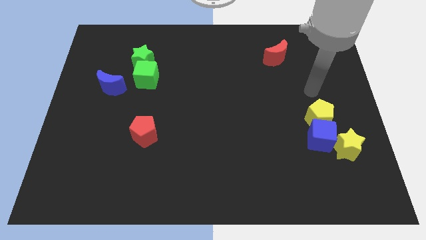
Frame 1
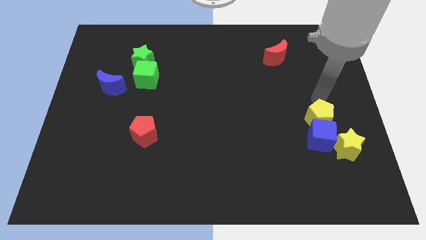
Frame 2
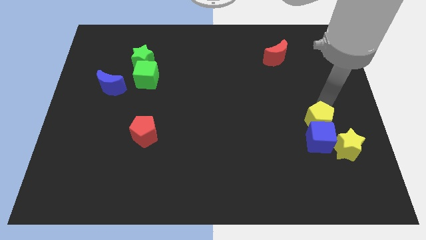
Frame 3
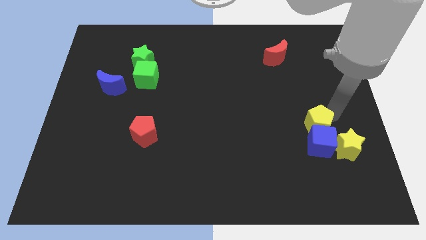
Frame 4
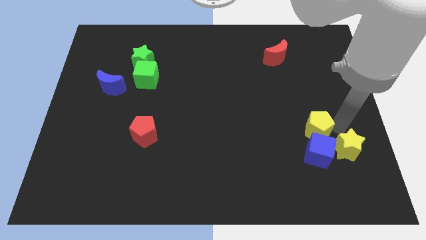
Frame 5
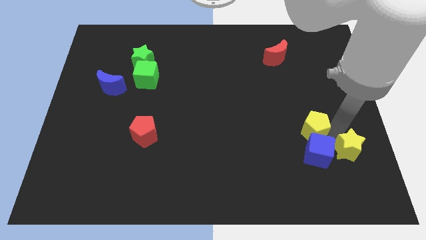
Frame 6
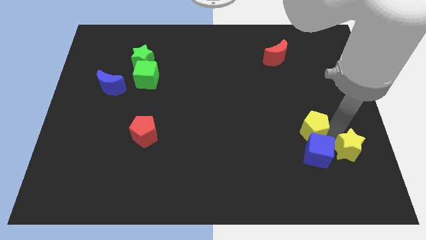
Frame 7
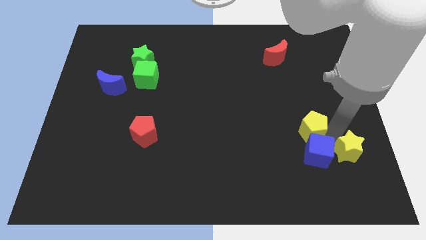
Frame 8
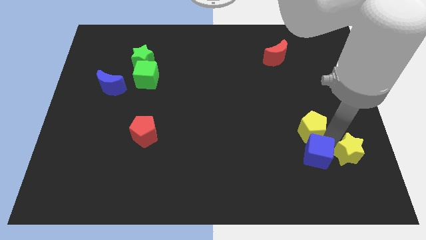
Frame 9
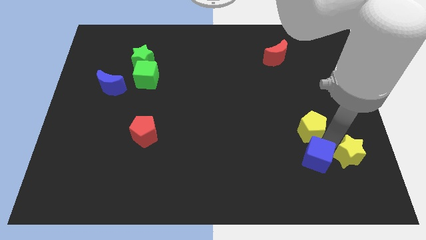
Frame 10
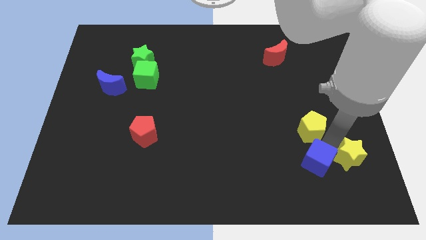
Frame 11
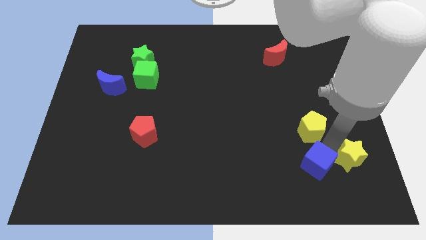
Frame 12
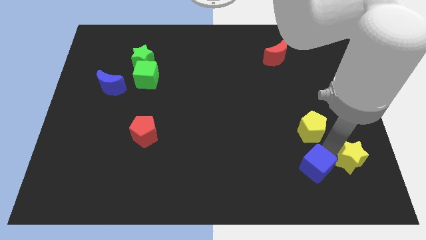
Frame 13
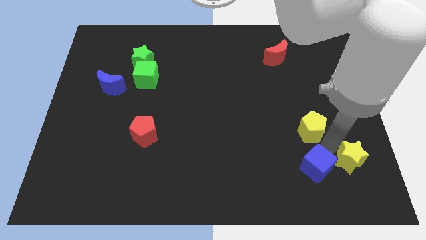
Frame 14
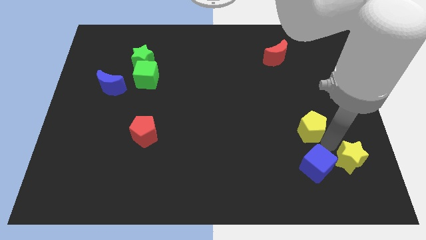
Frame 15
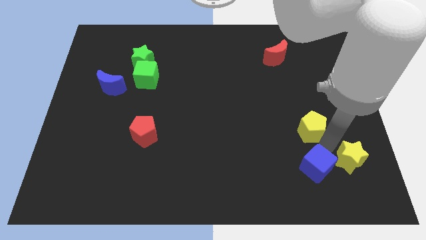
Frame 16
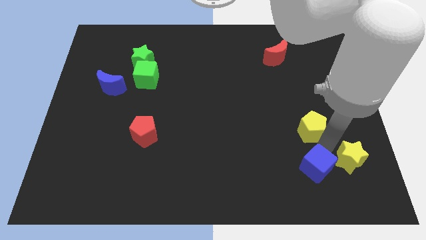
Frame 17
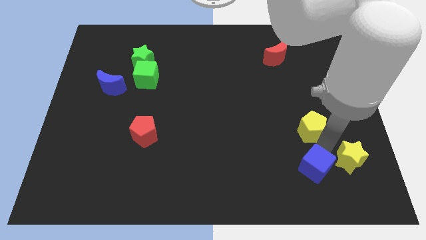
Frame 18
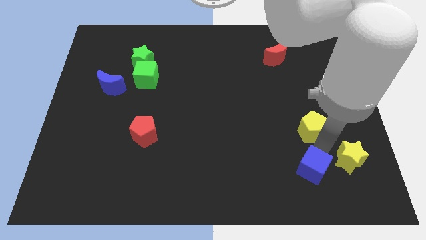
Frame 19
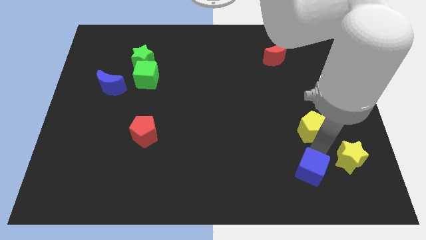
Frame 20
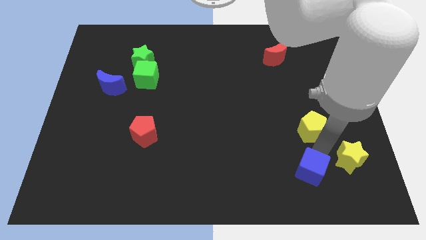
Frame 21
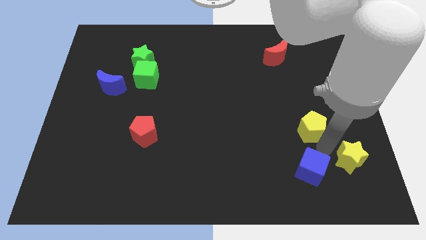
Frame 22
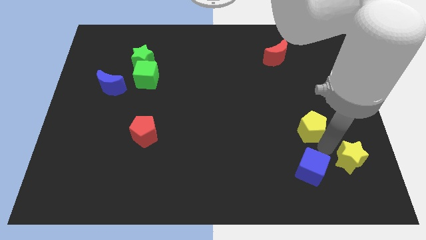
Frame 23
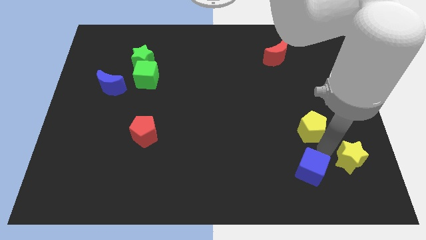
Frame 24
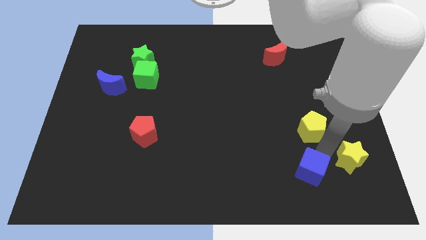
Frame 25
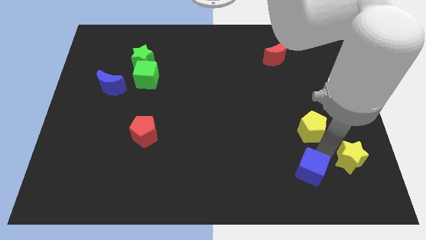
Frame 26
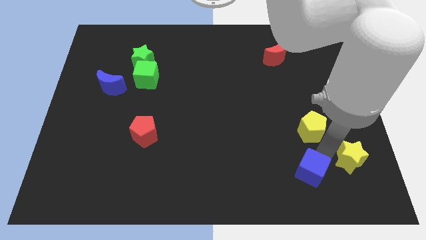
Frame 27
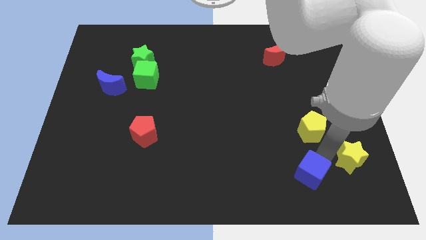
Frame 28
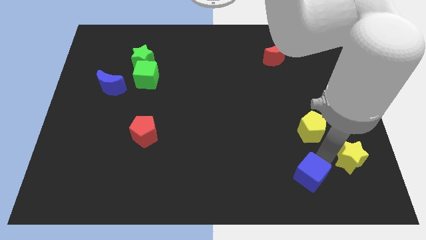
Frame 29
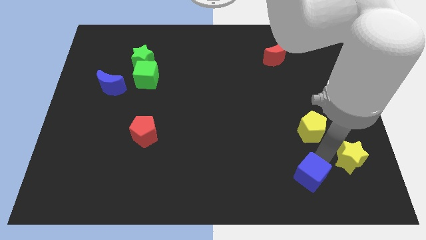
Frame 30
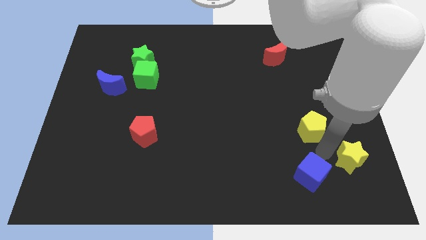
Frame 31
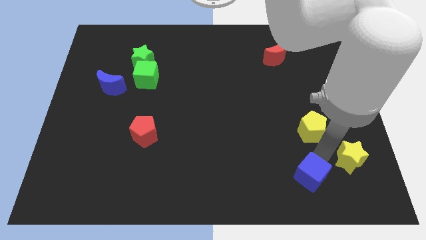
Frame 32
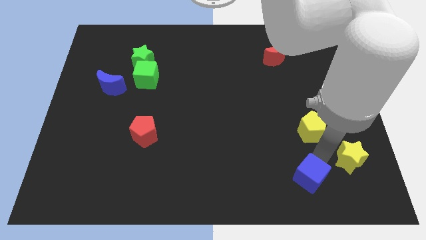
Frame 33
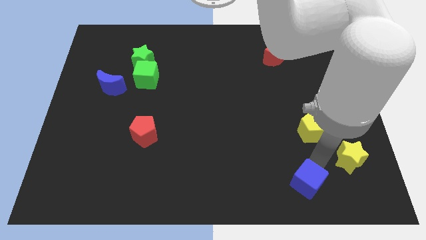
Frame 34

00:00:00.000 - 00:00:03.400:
move the blue cube away from the yellow star and yellow pentagon

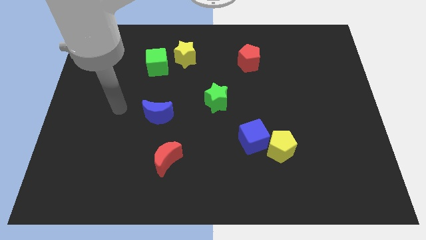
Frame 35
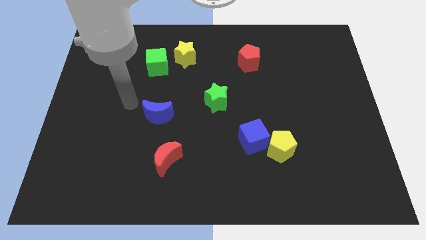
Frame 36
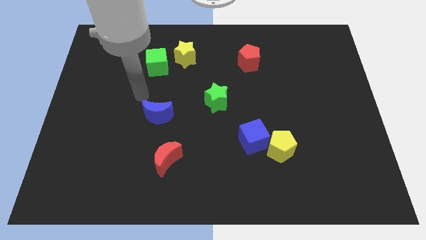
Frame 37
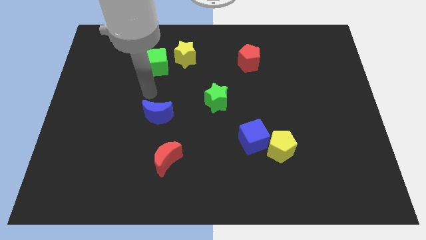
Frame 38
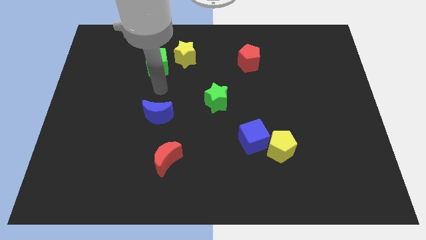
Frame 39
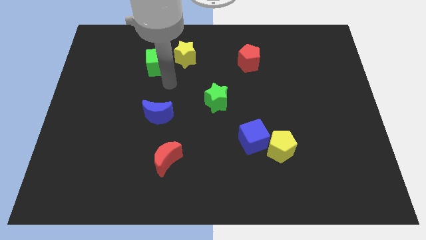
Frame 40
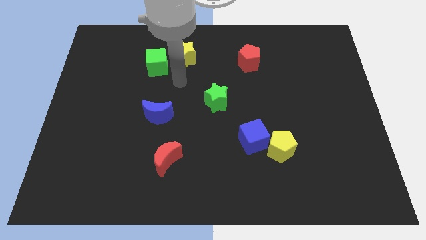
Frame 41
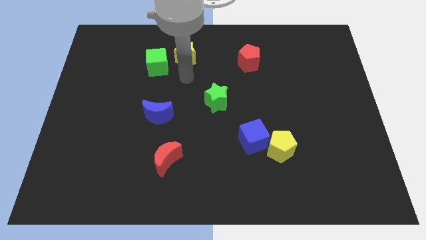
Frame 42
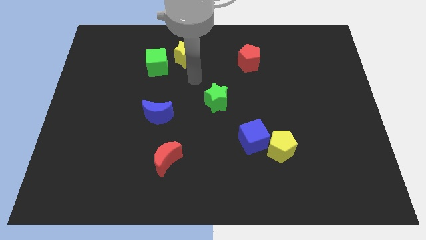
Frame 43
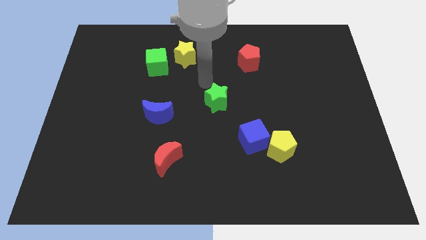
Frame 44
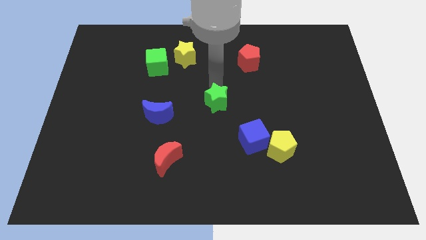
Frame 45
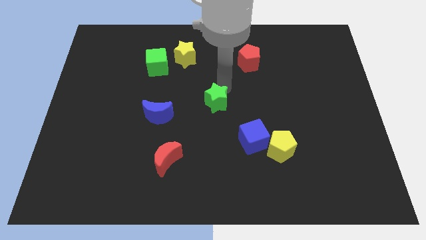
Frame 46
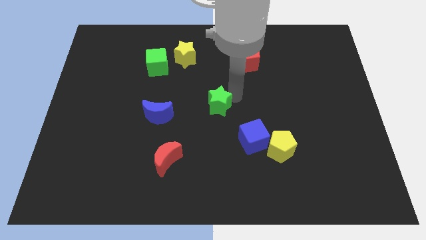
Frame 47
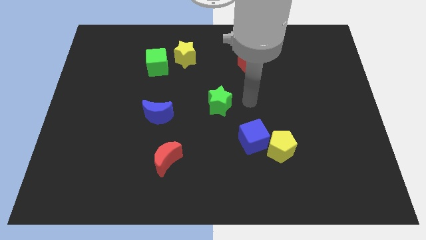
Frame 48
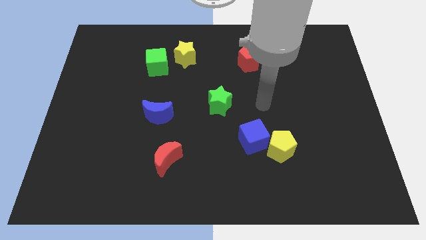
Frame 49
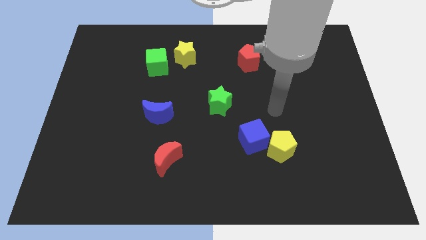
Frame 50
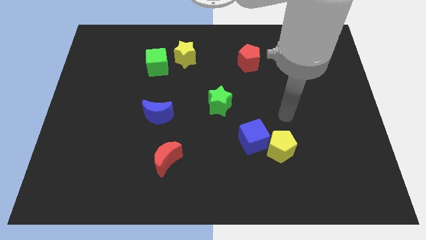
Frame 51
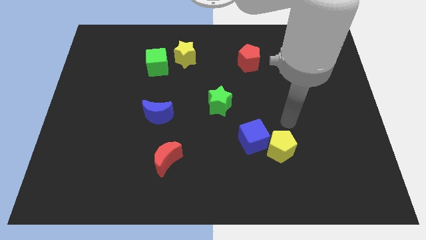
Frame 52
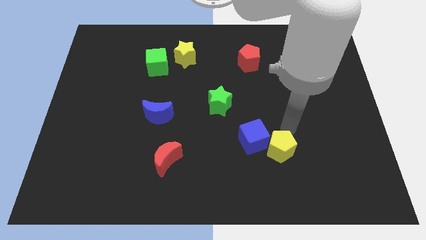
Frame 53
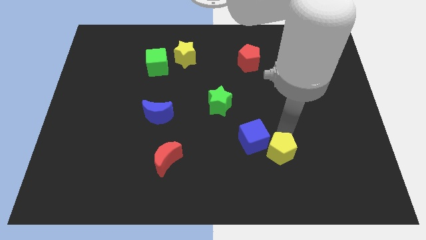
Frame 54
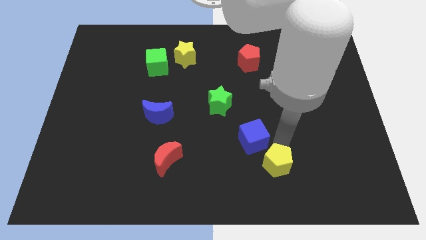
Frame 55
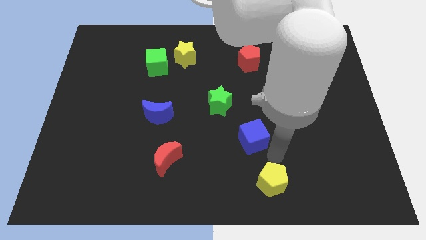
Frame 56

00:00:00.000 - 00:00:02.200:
move the blue cube away from the yellow pentagon

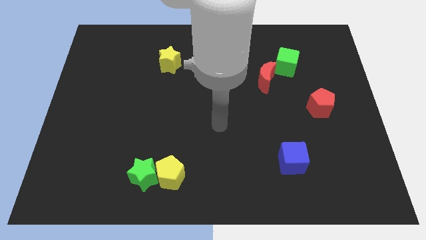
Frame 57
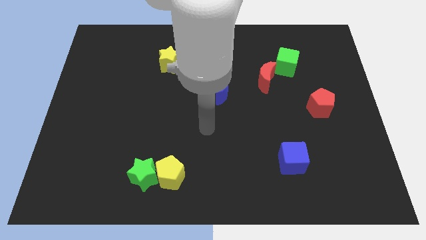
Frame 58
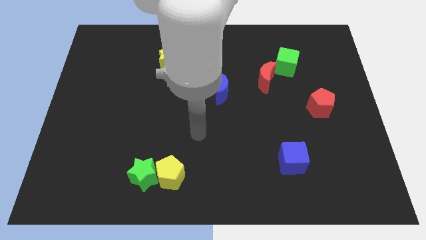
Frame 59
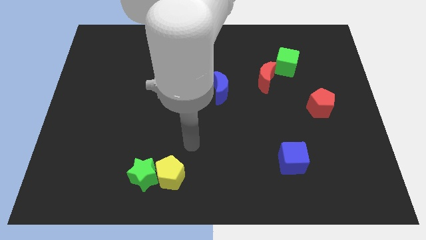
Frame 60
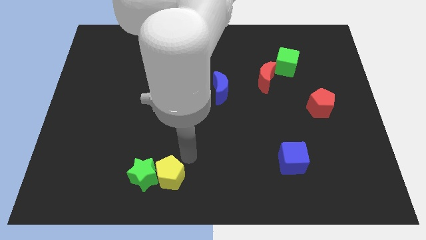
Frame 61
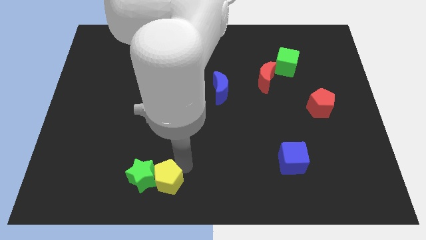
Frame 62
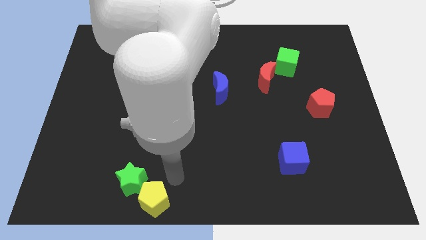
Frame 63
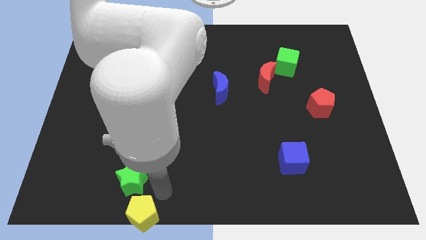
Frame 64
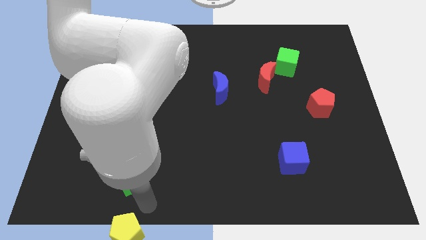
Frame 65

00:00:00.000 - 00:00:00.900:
separate the green star from the yellow pentagon

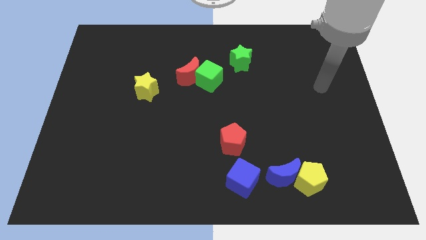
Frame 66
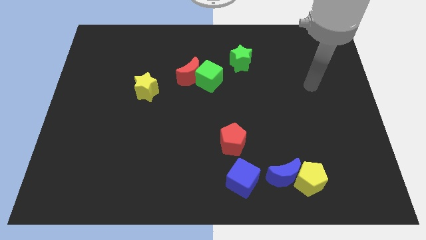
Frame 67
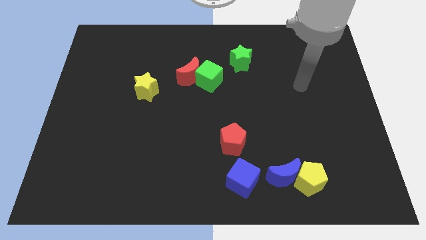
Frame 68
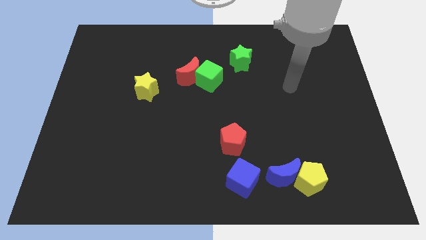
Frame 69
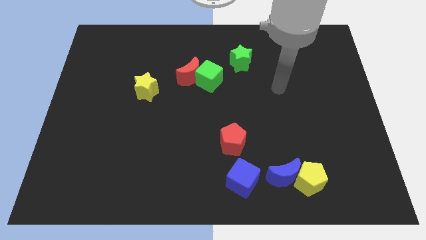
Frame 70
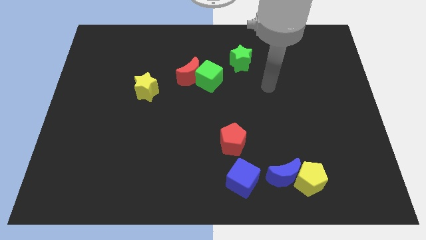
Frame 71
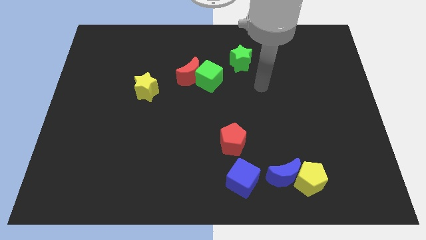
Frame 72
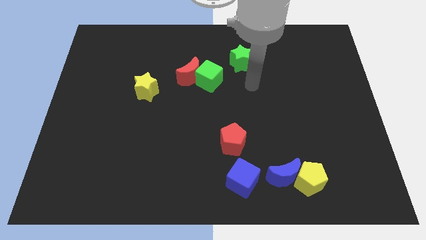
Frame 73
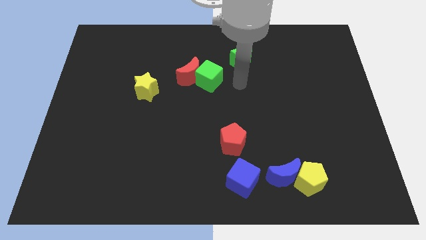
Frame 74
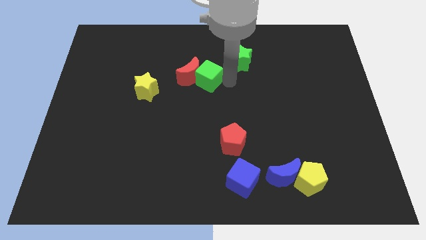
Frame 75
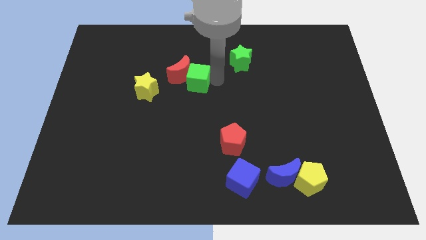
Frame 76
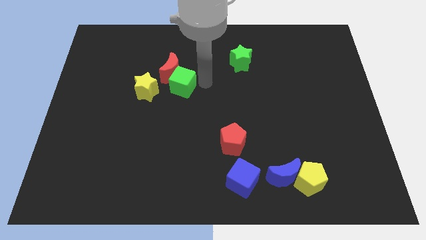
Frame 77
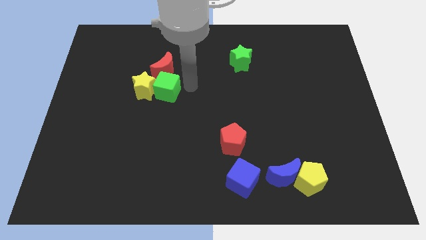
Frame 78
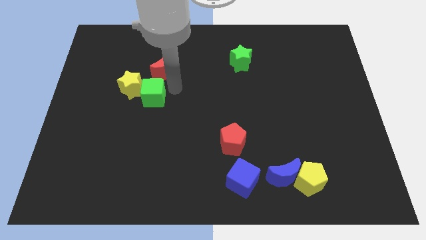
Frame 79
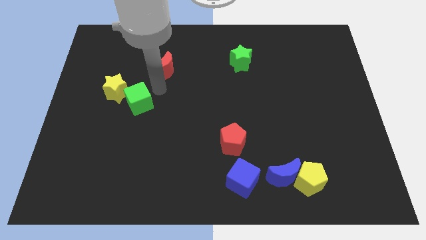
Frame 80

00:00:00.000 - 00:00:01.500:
pull the red moon apart from the green cube

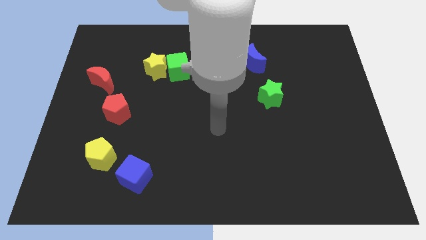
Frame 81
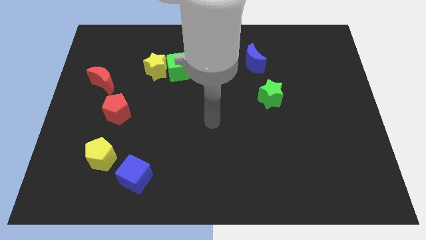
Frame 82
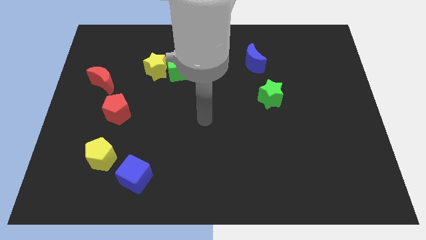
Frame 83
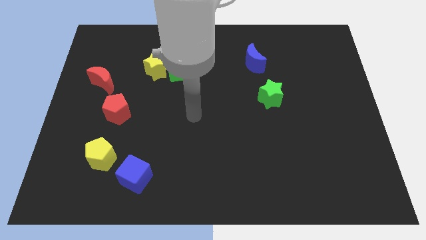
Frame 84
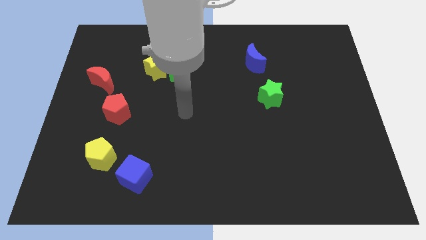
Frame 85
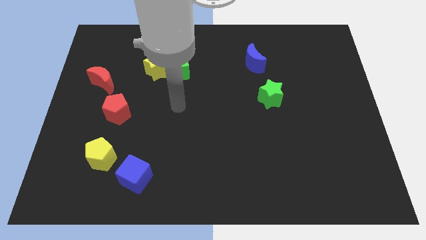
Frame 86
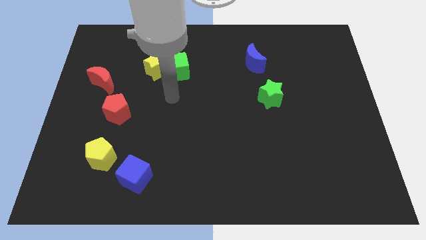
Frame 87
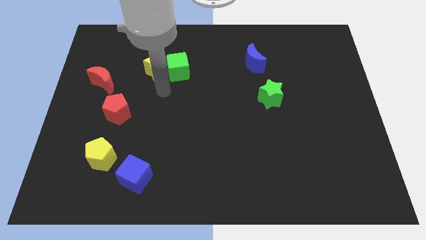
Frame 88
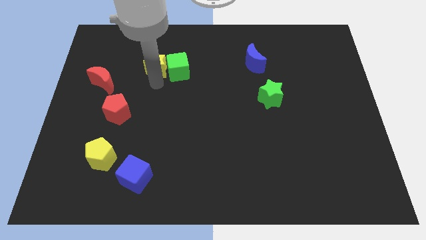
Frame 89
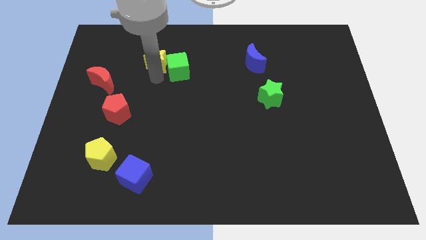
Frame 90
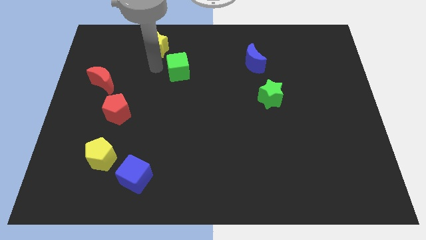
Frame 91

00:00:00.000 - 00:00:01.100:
move the green cube away from the yellow star
